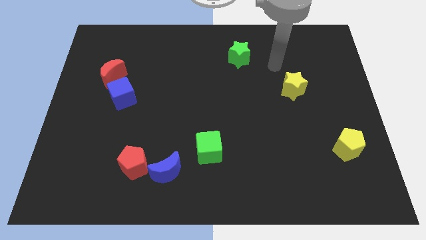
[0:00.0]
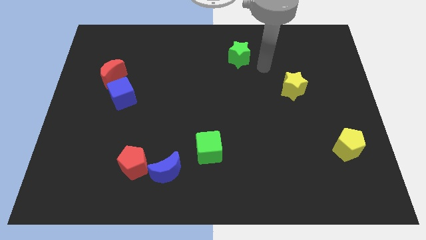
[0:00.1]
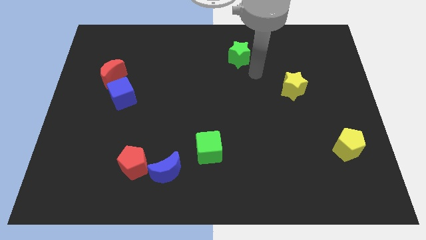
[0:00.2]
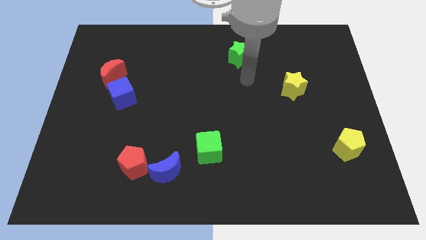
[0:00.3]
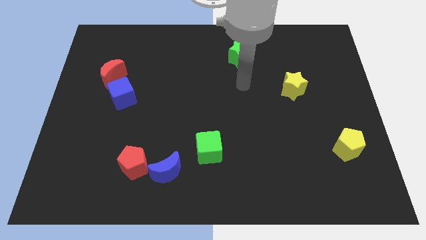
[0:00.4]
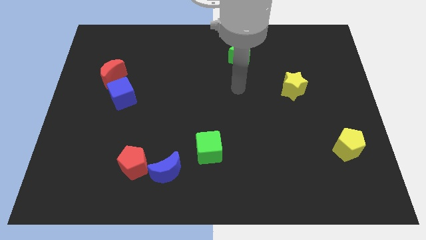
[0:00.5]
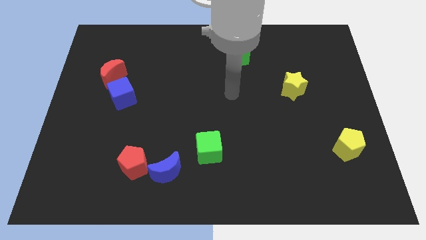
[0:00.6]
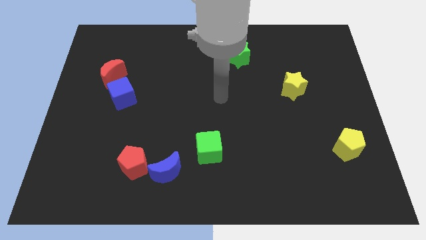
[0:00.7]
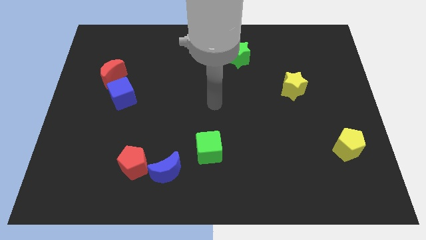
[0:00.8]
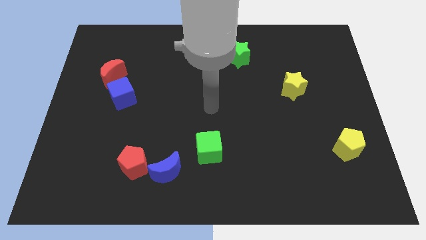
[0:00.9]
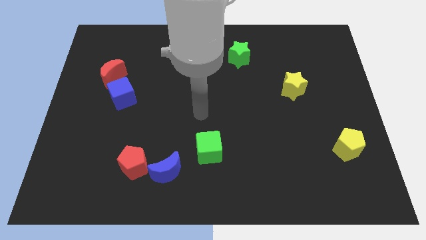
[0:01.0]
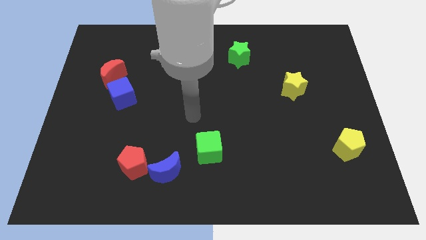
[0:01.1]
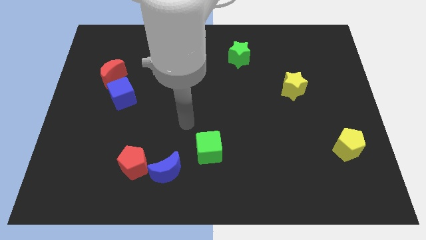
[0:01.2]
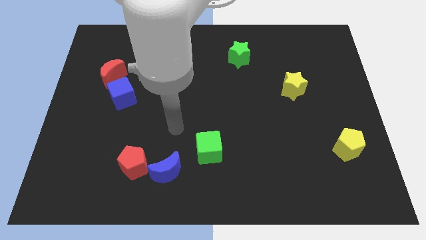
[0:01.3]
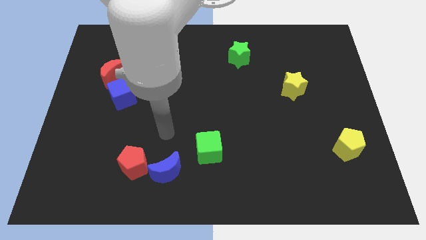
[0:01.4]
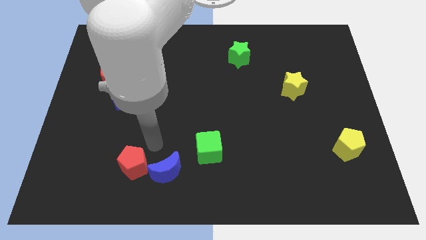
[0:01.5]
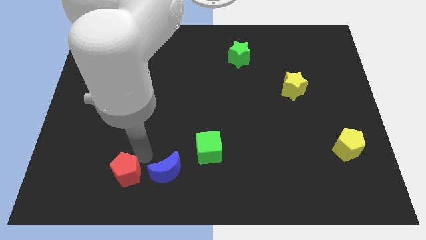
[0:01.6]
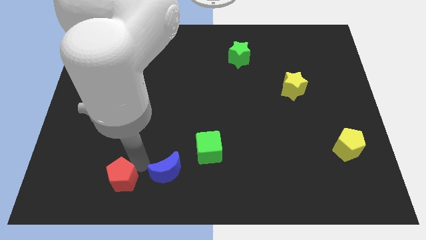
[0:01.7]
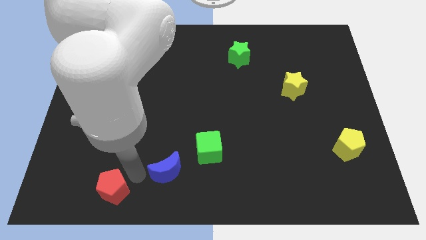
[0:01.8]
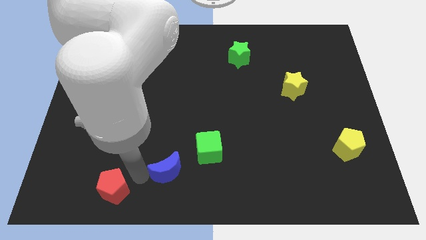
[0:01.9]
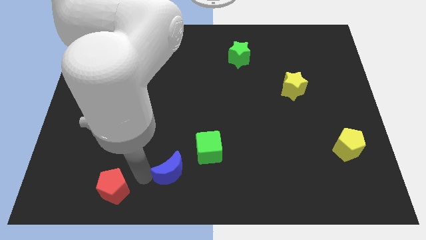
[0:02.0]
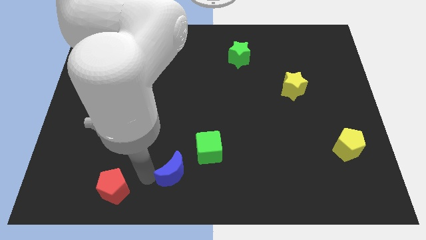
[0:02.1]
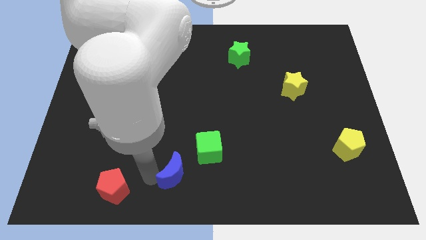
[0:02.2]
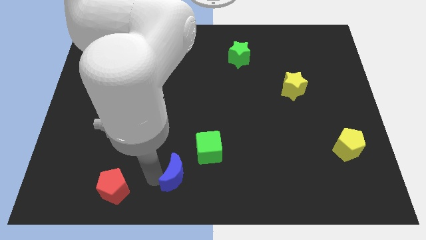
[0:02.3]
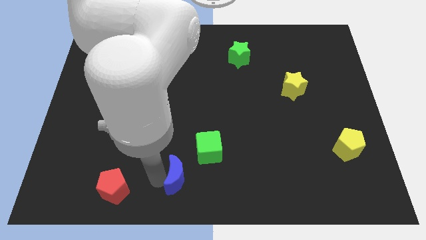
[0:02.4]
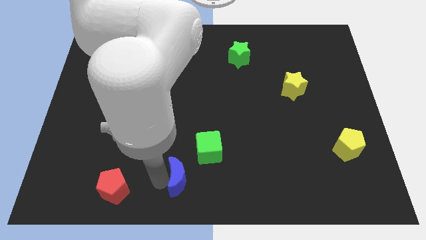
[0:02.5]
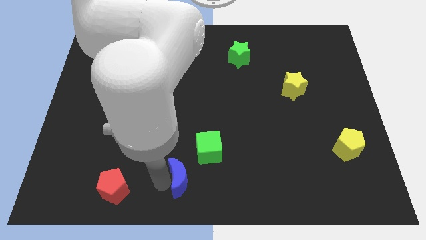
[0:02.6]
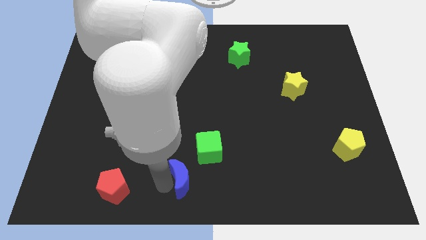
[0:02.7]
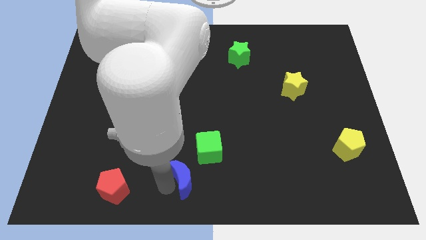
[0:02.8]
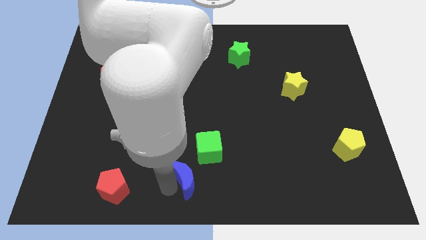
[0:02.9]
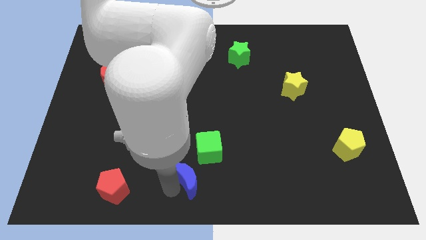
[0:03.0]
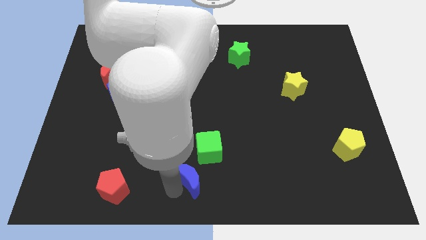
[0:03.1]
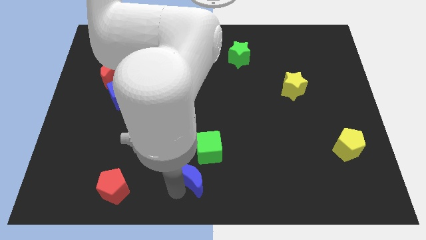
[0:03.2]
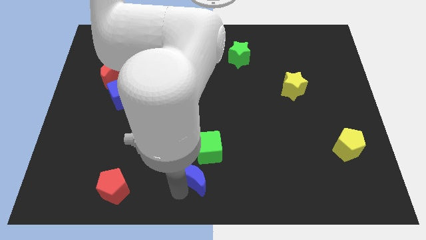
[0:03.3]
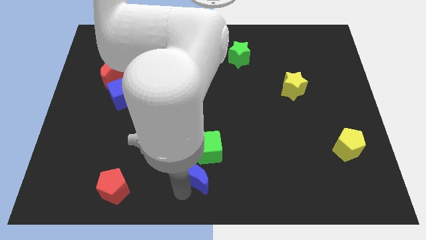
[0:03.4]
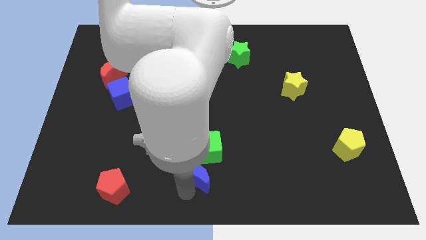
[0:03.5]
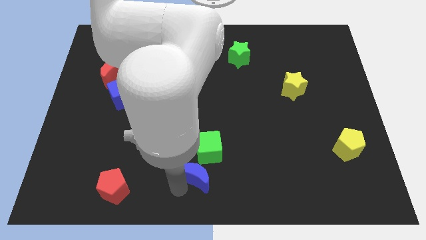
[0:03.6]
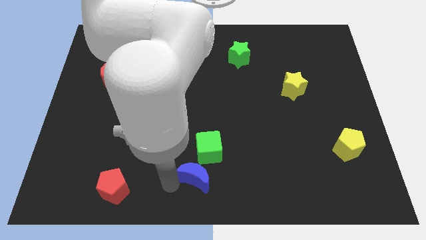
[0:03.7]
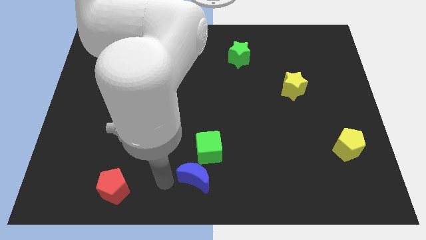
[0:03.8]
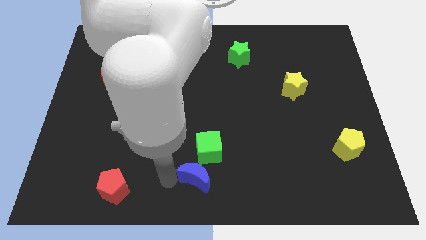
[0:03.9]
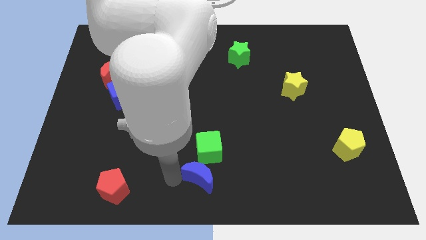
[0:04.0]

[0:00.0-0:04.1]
push the blue moon to the right somewhat

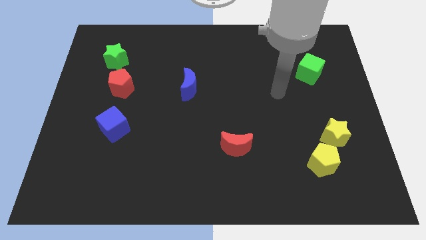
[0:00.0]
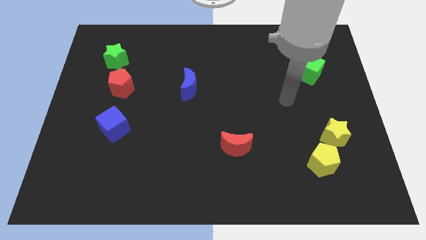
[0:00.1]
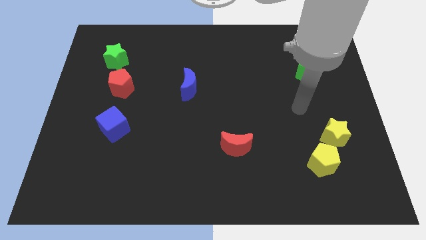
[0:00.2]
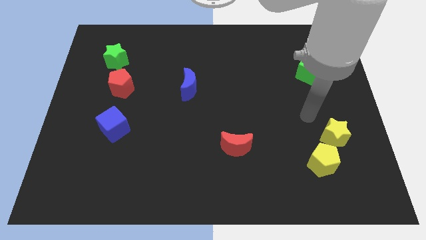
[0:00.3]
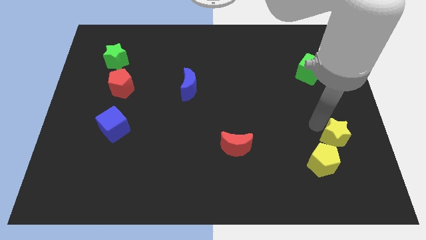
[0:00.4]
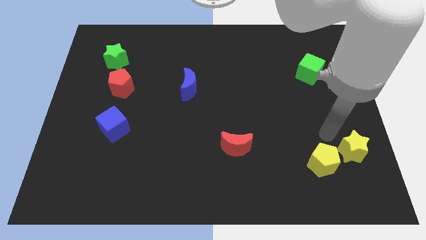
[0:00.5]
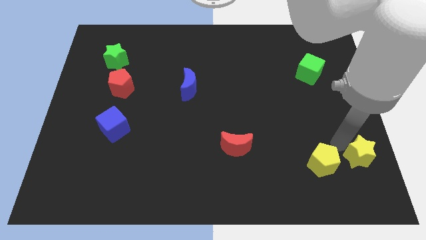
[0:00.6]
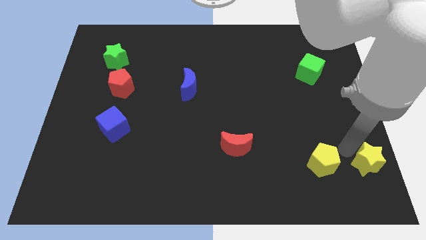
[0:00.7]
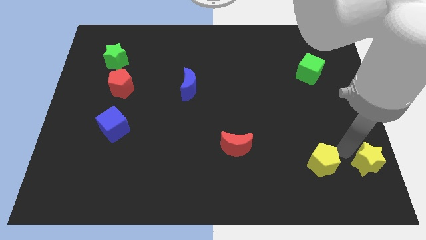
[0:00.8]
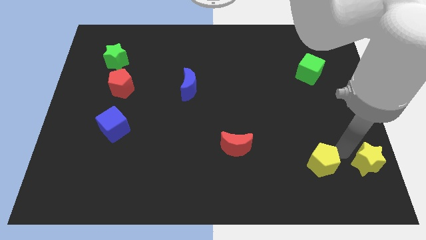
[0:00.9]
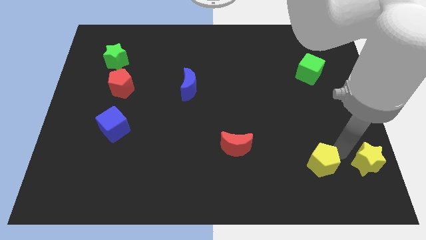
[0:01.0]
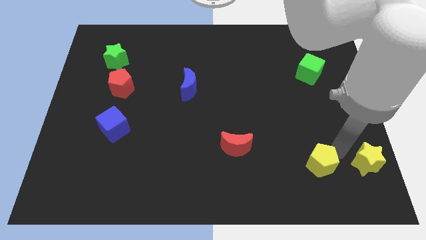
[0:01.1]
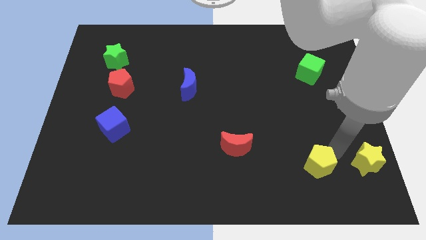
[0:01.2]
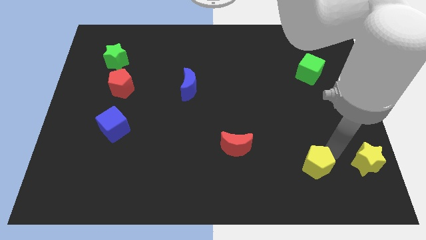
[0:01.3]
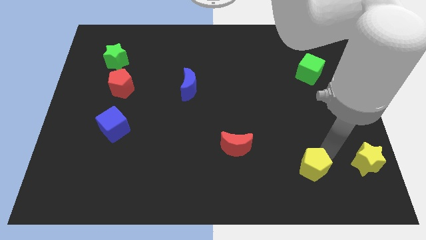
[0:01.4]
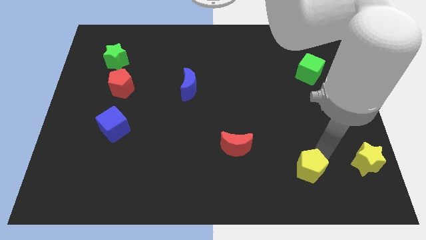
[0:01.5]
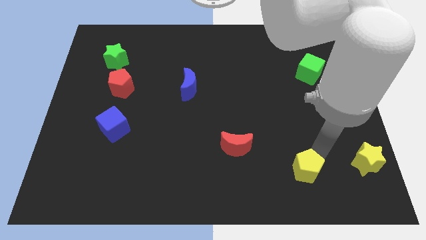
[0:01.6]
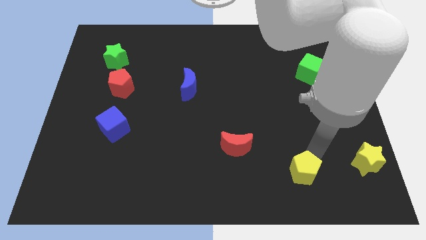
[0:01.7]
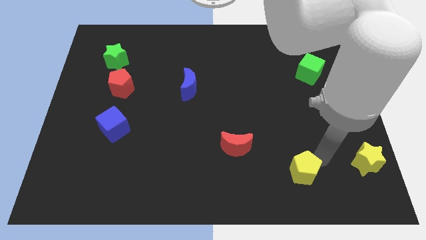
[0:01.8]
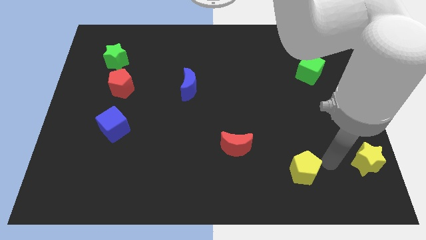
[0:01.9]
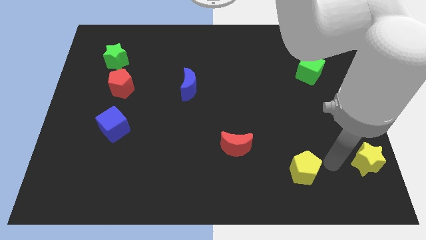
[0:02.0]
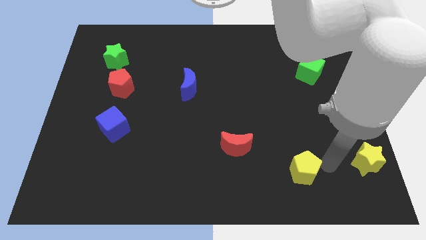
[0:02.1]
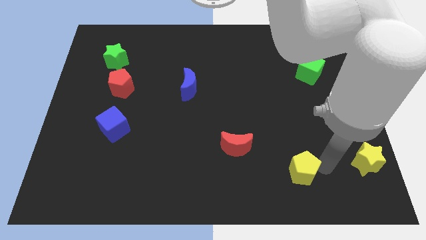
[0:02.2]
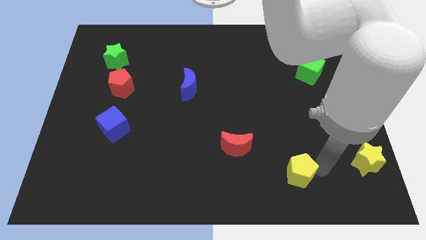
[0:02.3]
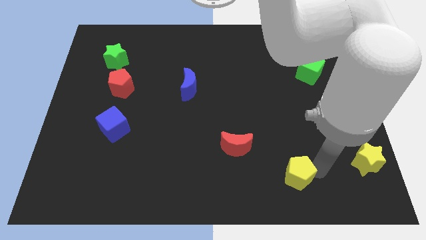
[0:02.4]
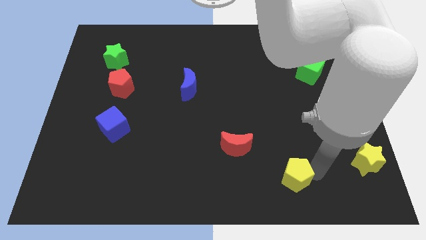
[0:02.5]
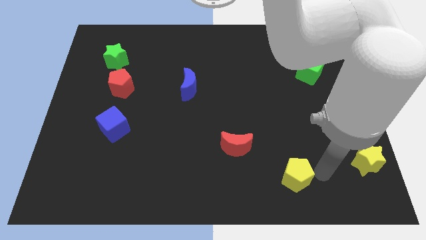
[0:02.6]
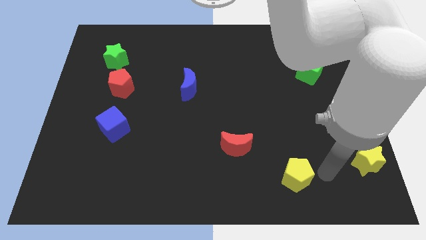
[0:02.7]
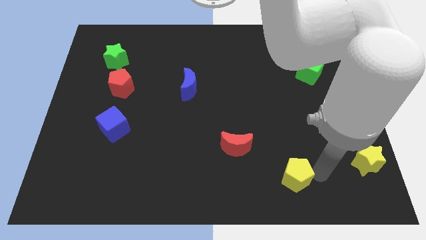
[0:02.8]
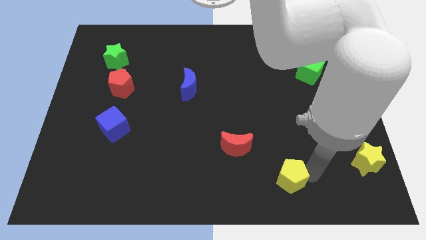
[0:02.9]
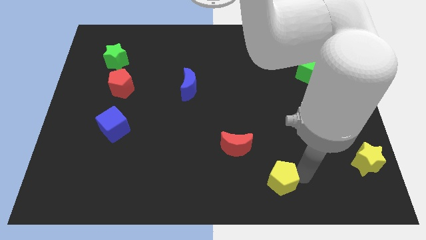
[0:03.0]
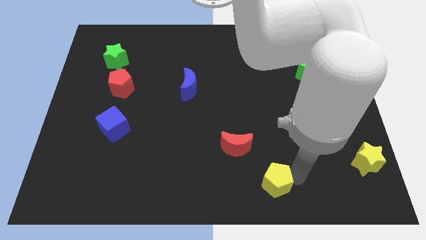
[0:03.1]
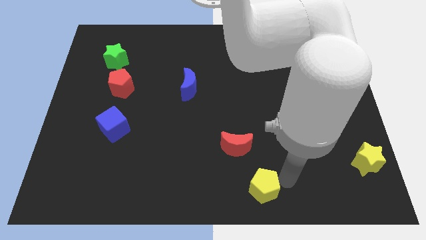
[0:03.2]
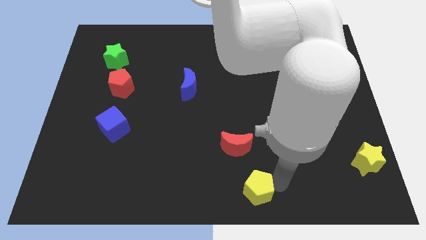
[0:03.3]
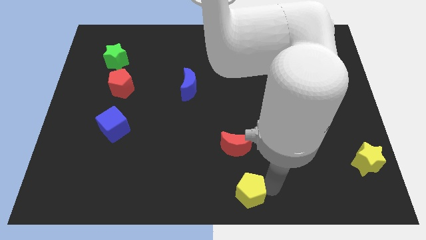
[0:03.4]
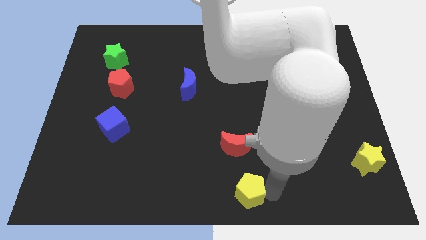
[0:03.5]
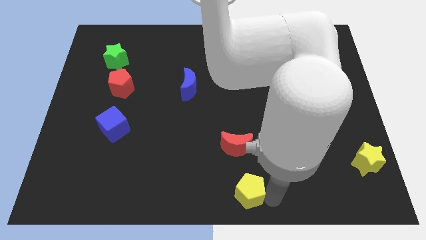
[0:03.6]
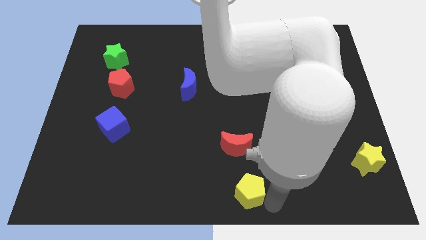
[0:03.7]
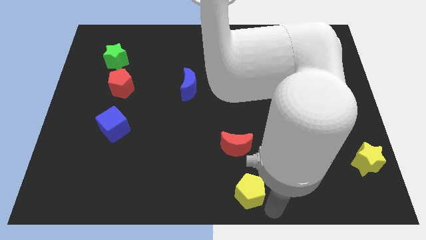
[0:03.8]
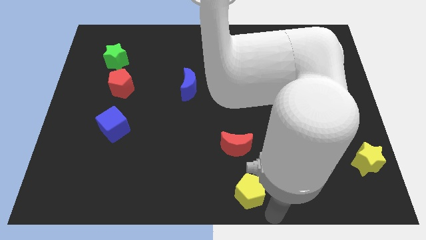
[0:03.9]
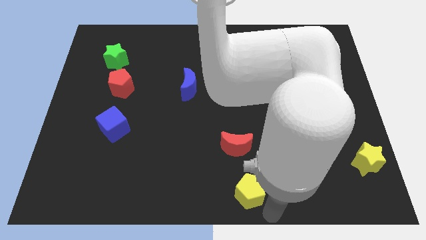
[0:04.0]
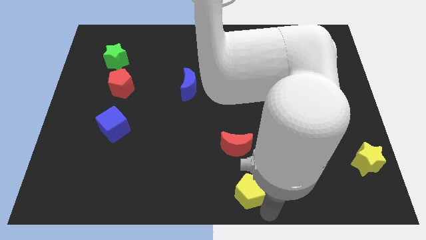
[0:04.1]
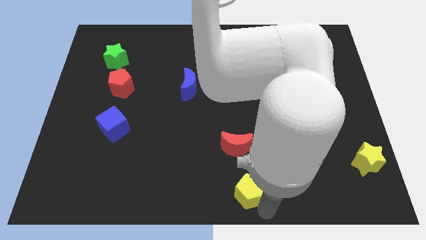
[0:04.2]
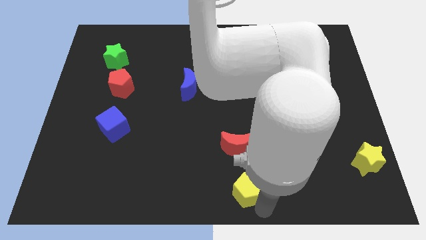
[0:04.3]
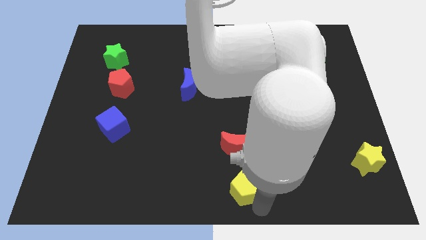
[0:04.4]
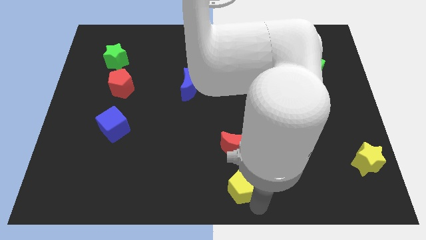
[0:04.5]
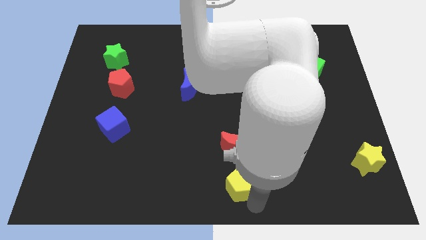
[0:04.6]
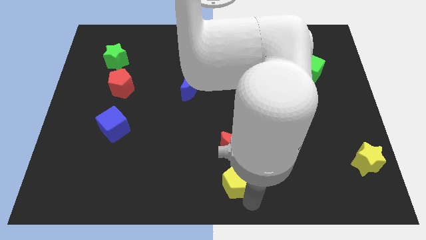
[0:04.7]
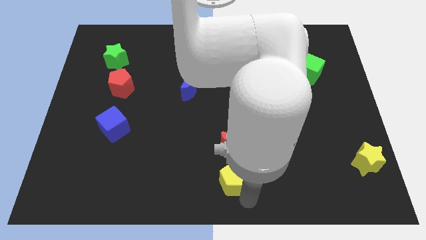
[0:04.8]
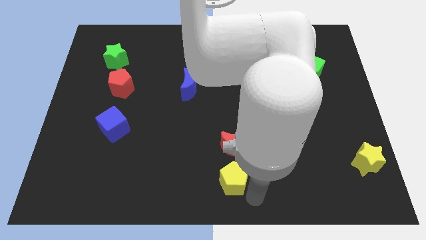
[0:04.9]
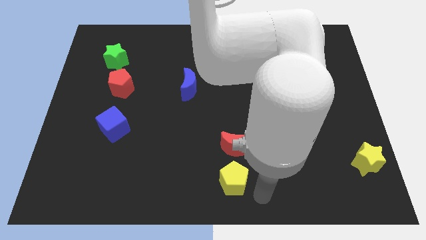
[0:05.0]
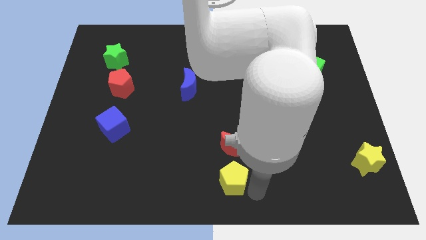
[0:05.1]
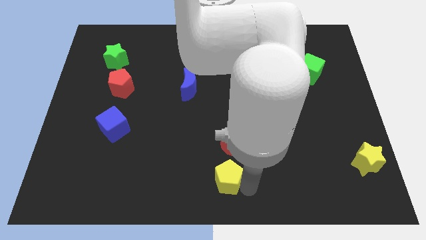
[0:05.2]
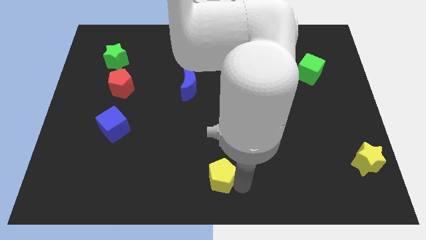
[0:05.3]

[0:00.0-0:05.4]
push the yellow pentagon to the left
